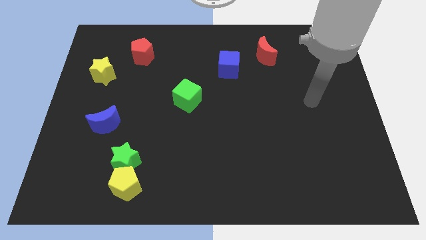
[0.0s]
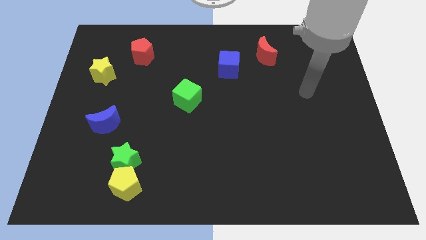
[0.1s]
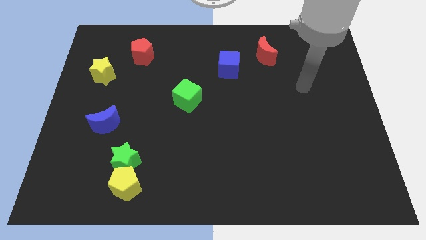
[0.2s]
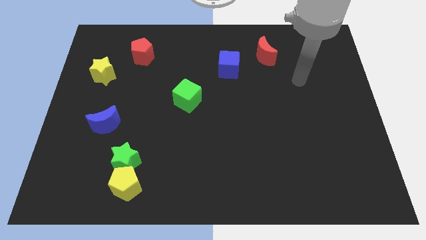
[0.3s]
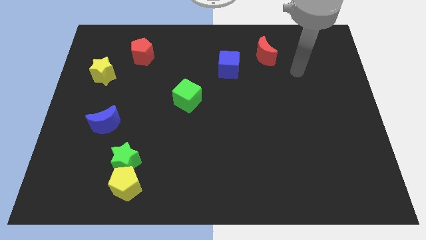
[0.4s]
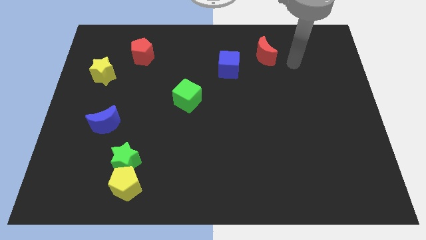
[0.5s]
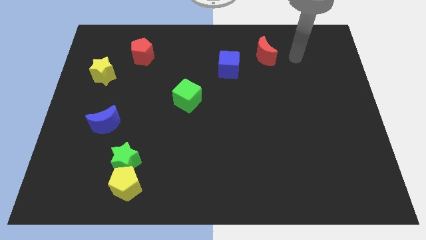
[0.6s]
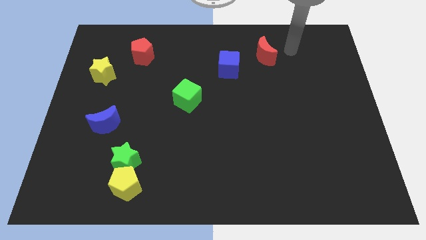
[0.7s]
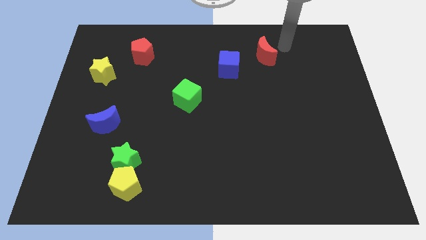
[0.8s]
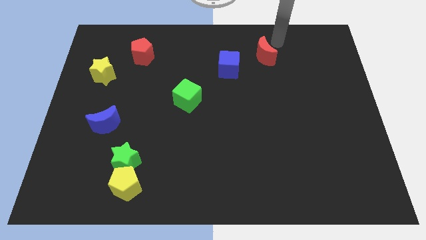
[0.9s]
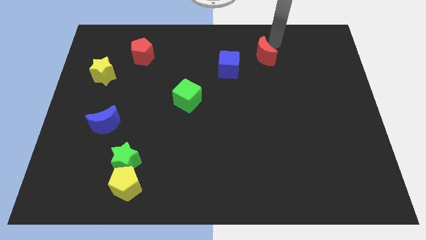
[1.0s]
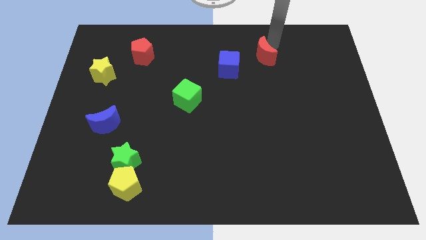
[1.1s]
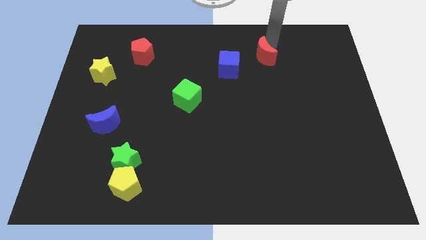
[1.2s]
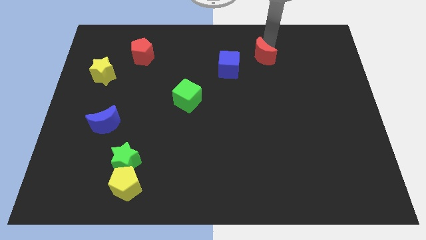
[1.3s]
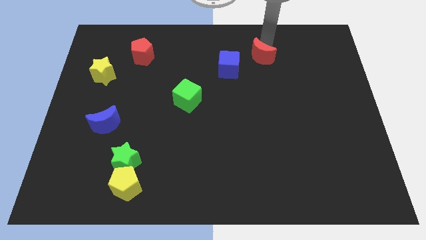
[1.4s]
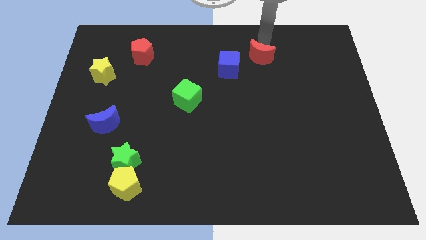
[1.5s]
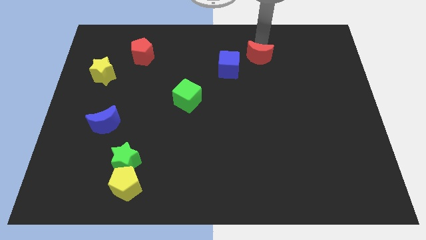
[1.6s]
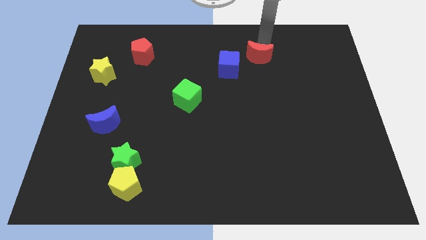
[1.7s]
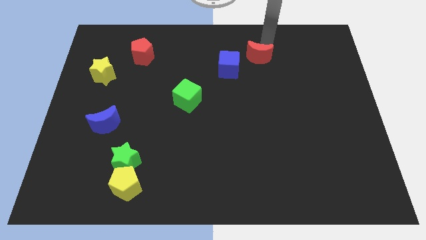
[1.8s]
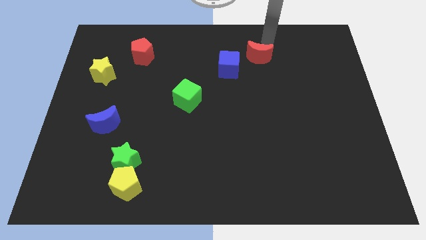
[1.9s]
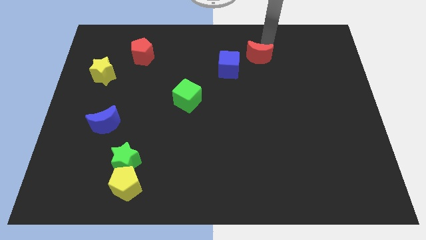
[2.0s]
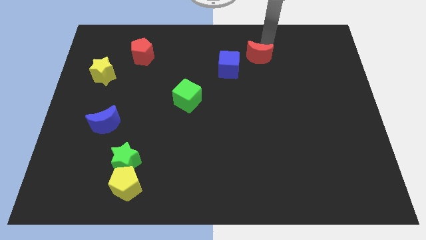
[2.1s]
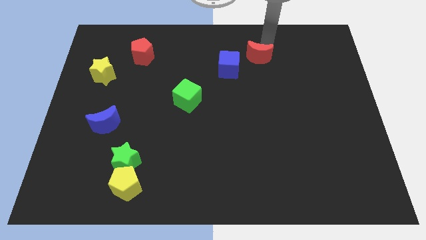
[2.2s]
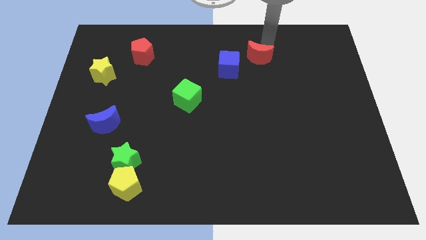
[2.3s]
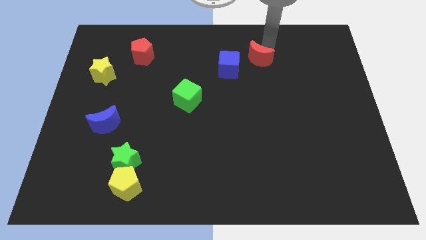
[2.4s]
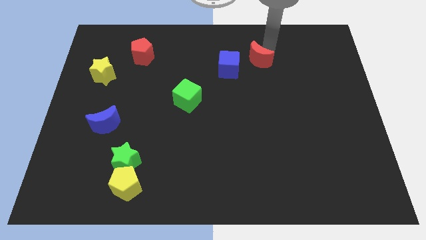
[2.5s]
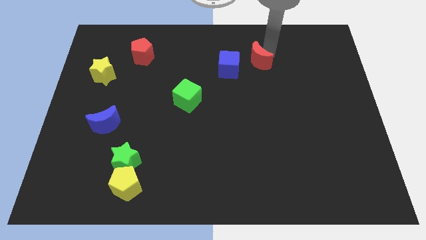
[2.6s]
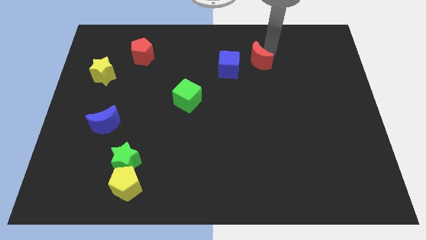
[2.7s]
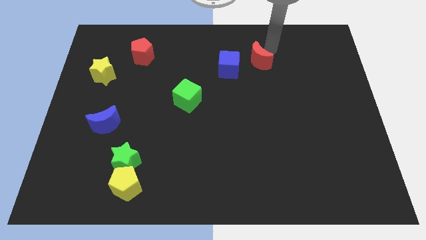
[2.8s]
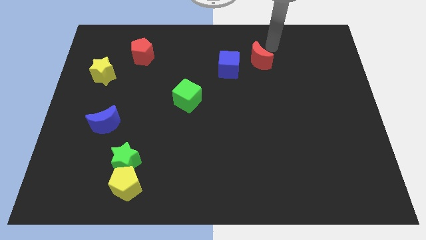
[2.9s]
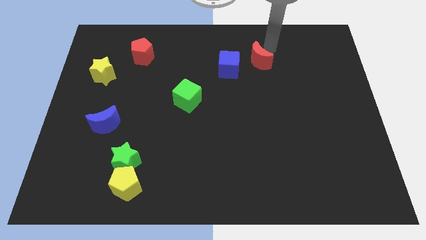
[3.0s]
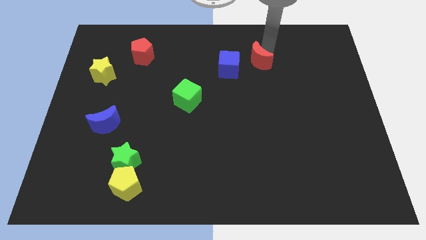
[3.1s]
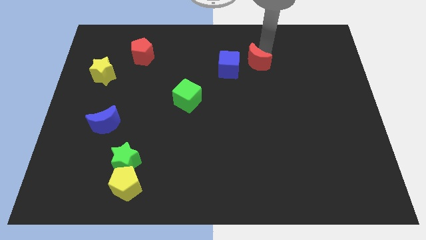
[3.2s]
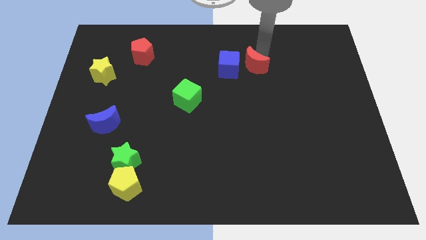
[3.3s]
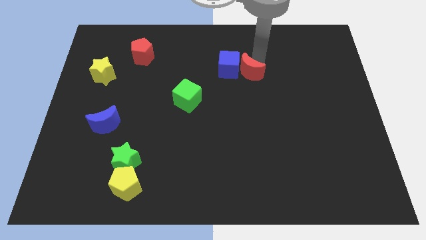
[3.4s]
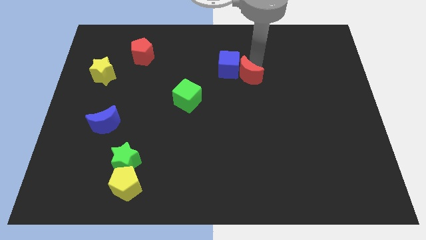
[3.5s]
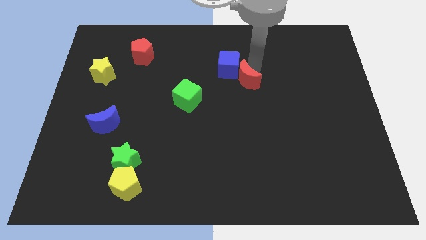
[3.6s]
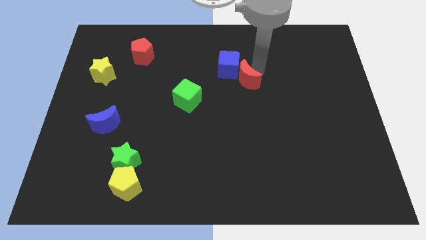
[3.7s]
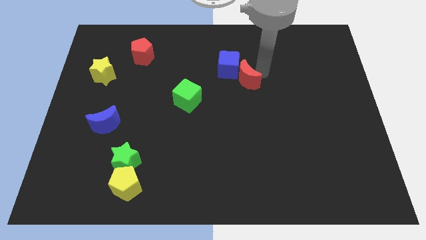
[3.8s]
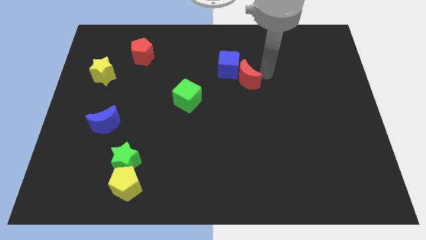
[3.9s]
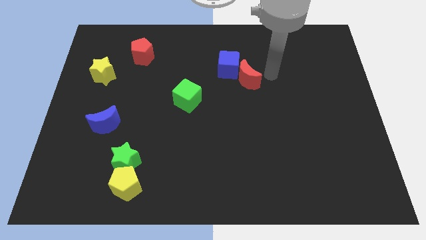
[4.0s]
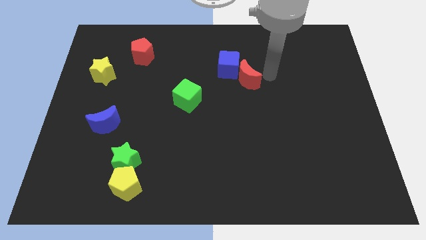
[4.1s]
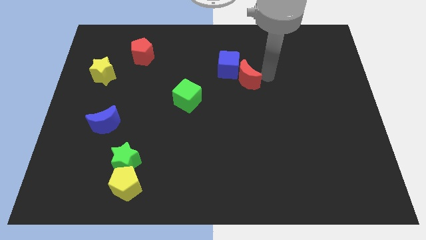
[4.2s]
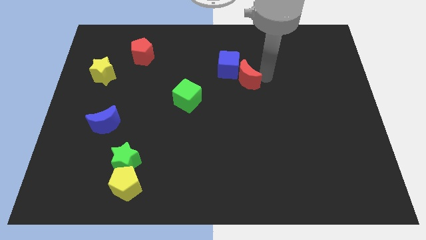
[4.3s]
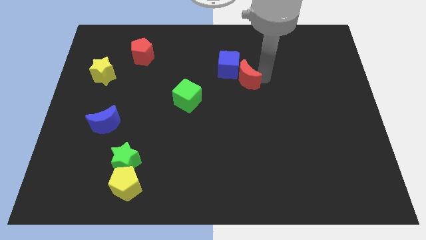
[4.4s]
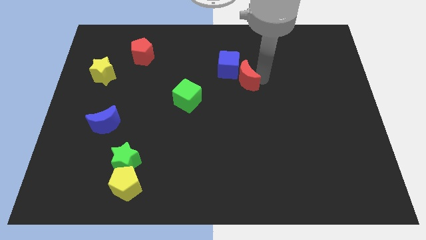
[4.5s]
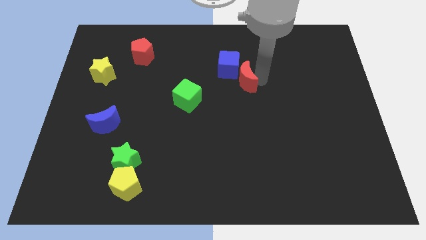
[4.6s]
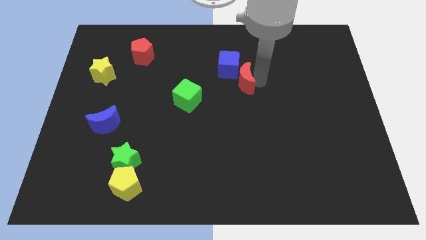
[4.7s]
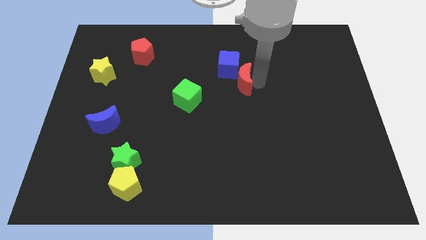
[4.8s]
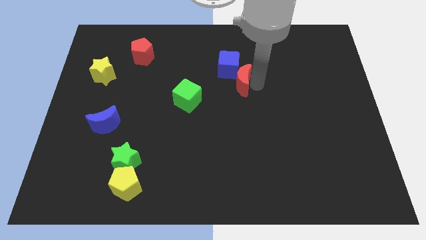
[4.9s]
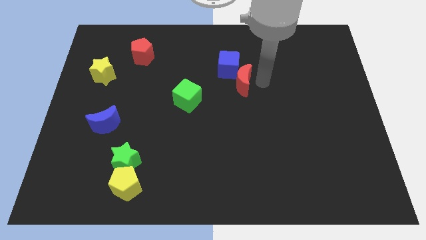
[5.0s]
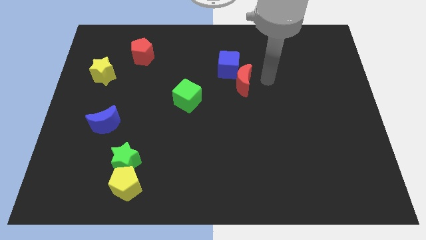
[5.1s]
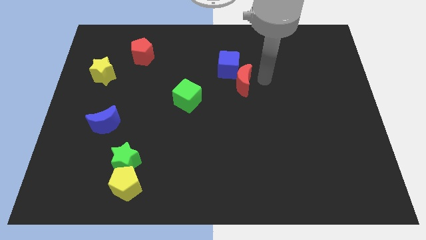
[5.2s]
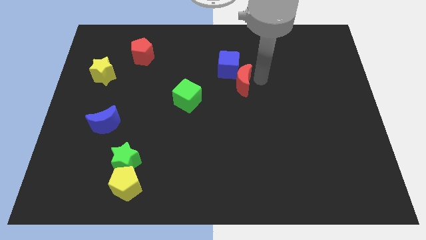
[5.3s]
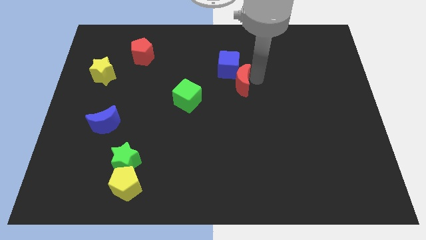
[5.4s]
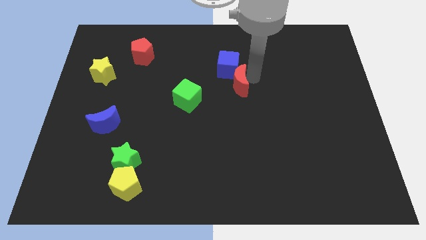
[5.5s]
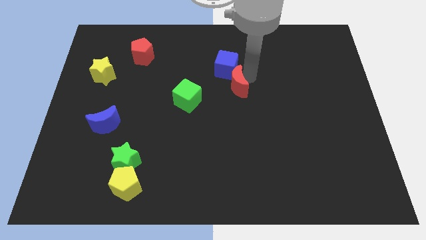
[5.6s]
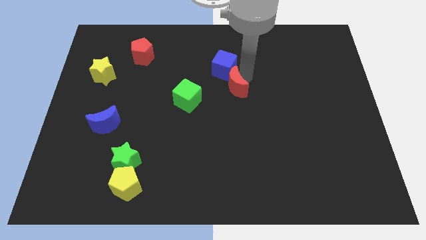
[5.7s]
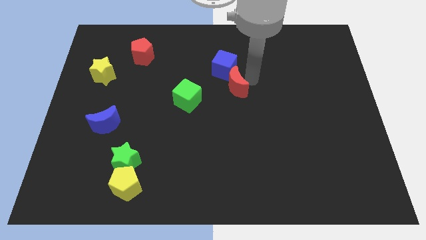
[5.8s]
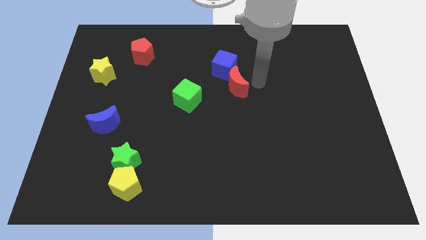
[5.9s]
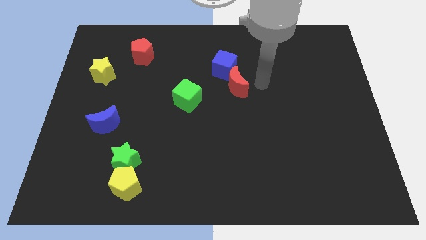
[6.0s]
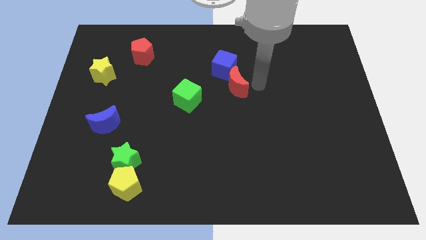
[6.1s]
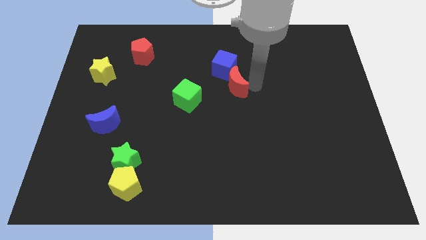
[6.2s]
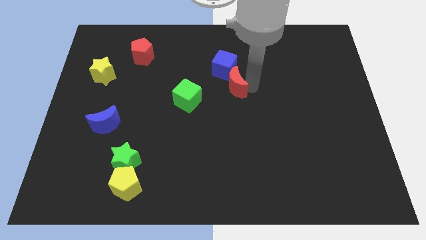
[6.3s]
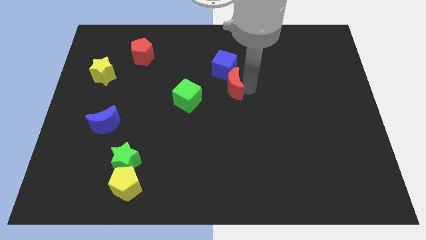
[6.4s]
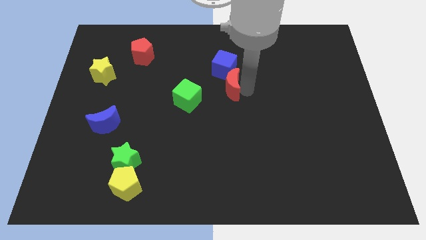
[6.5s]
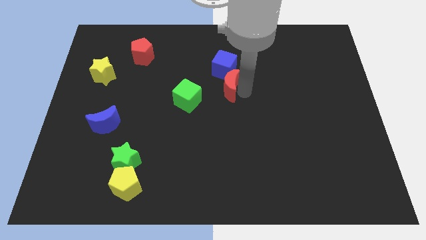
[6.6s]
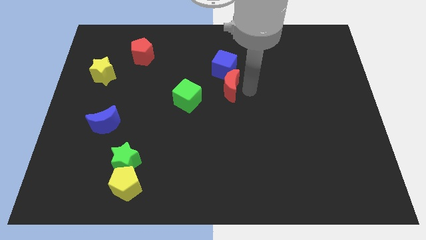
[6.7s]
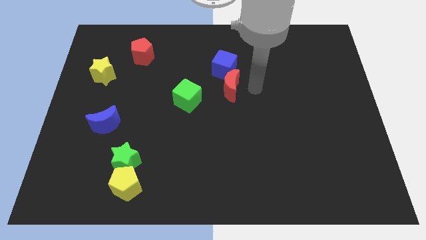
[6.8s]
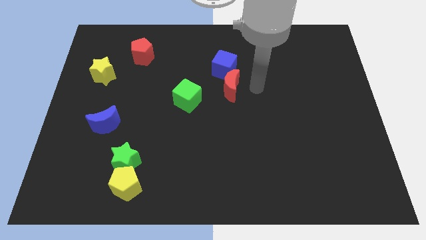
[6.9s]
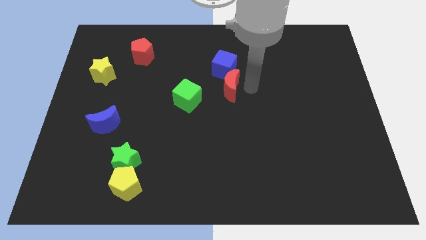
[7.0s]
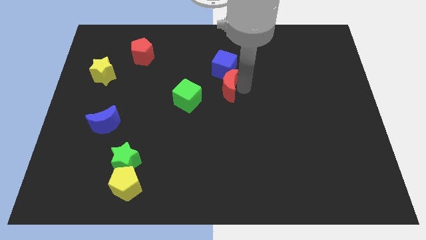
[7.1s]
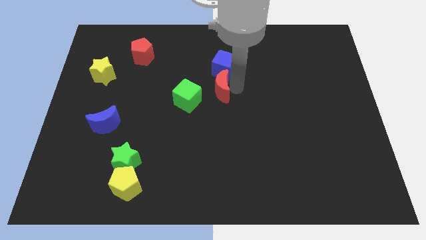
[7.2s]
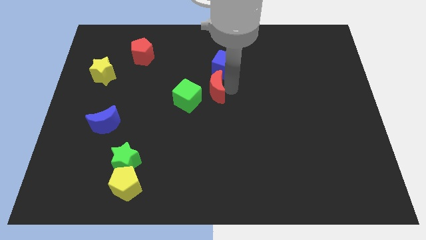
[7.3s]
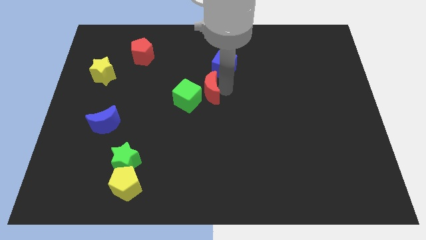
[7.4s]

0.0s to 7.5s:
push the red moon towards the green cube
